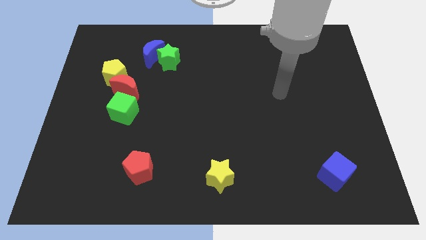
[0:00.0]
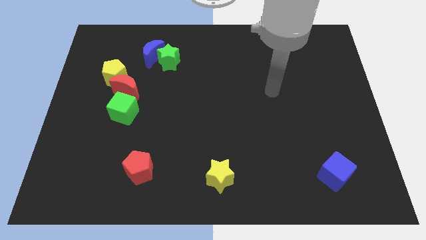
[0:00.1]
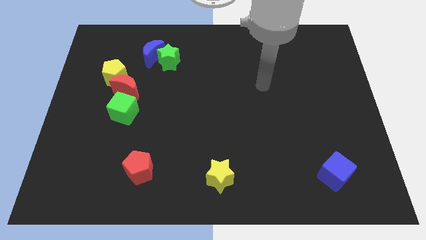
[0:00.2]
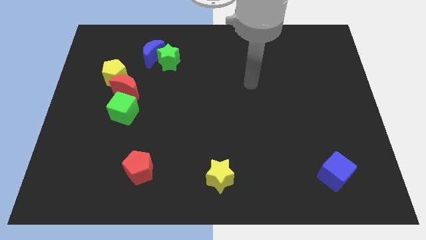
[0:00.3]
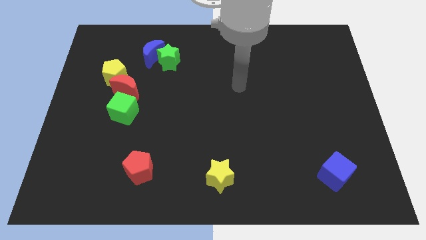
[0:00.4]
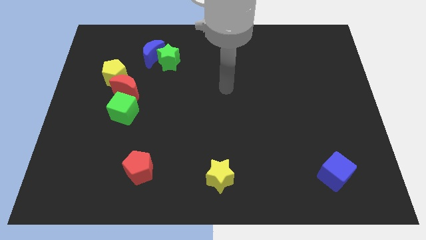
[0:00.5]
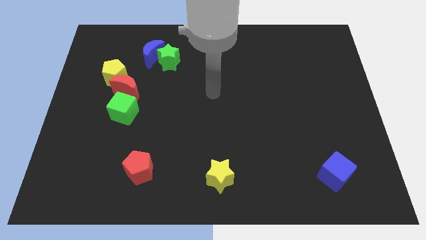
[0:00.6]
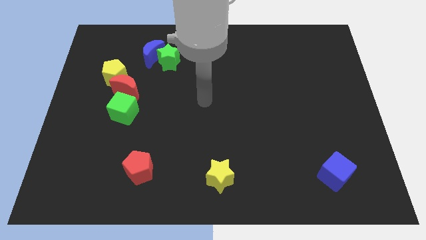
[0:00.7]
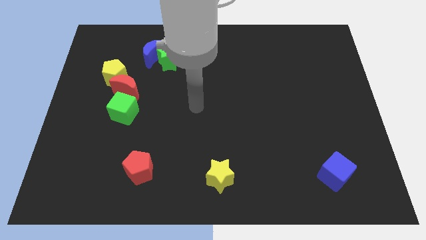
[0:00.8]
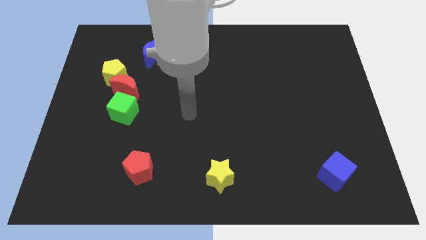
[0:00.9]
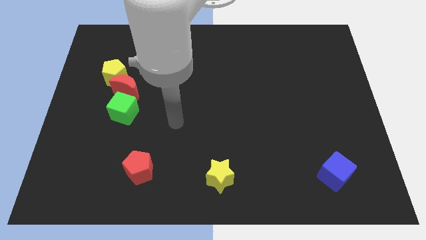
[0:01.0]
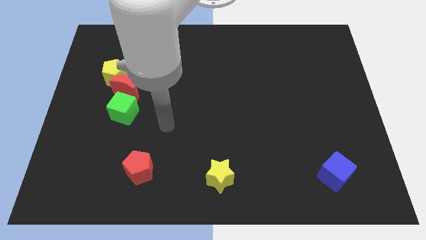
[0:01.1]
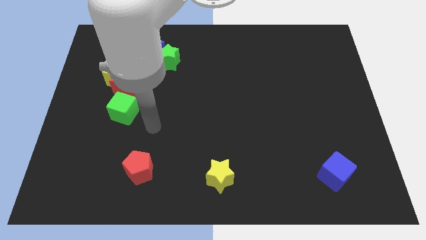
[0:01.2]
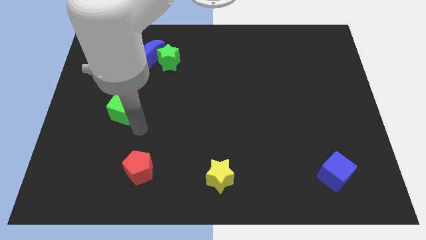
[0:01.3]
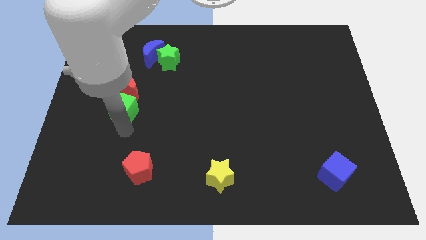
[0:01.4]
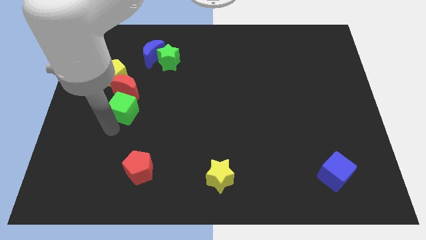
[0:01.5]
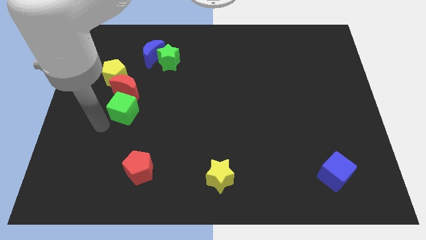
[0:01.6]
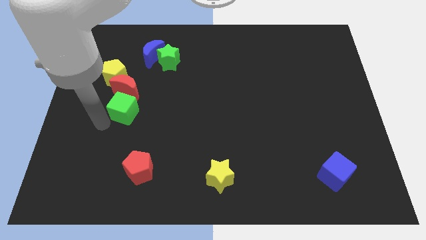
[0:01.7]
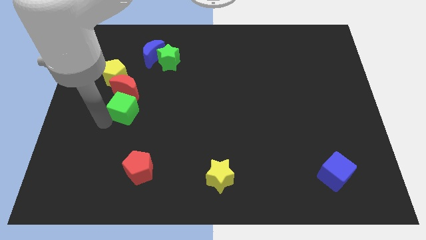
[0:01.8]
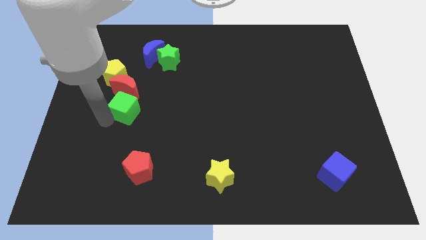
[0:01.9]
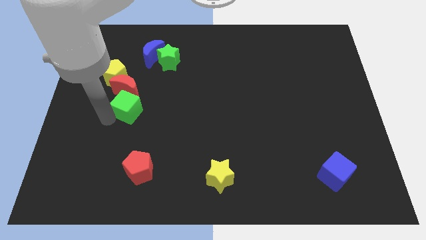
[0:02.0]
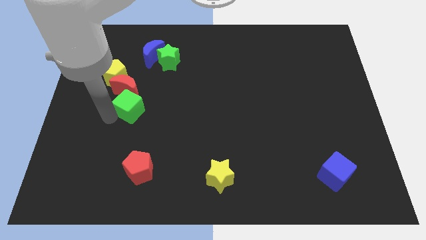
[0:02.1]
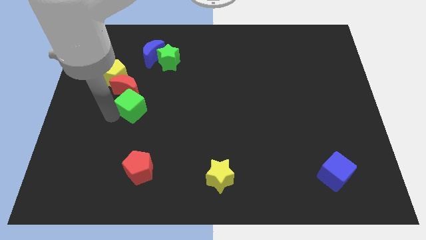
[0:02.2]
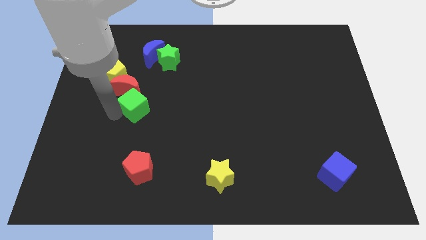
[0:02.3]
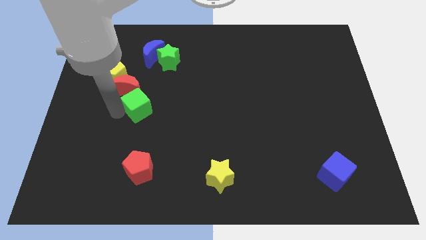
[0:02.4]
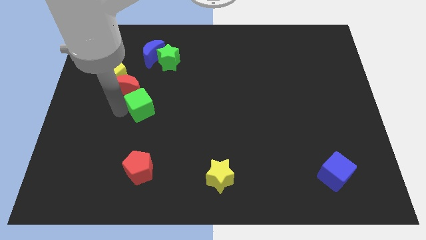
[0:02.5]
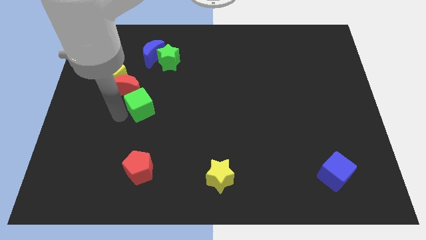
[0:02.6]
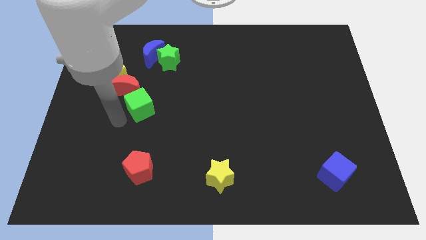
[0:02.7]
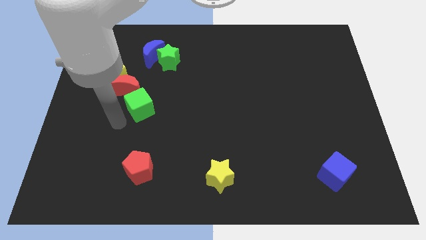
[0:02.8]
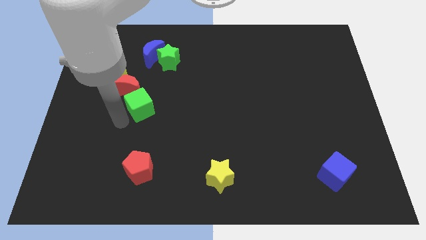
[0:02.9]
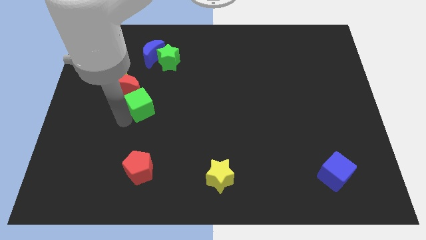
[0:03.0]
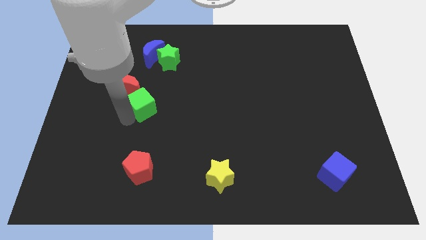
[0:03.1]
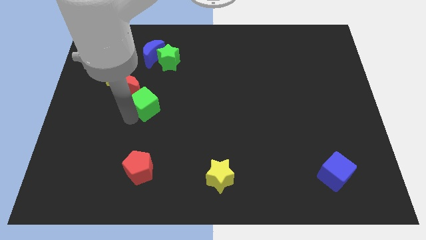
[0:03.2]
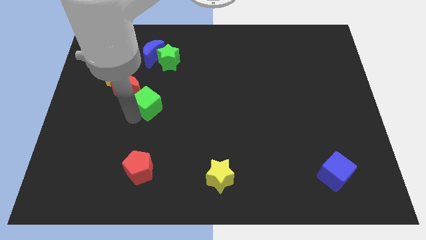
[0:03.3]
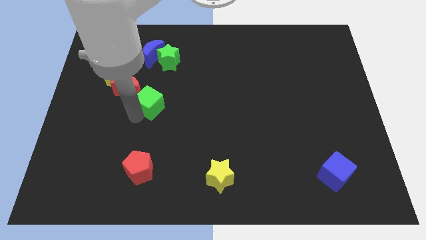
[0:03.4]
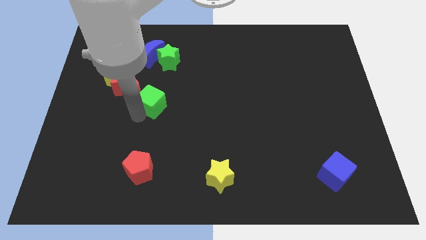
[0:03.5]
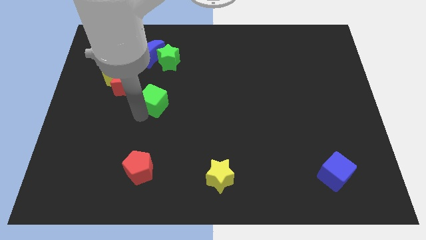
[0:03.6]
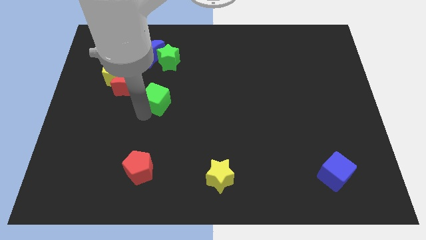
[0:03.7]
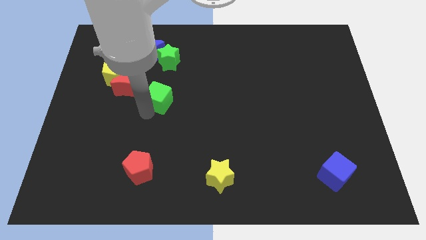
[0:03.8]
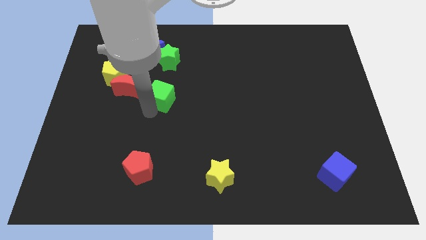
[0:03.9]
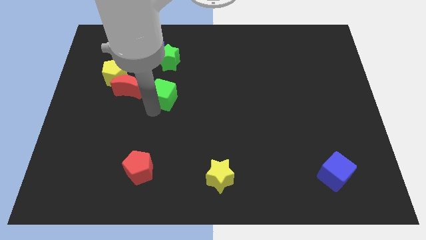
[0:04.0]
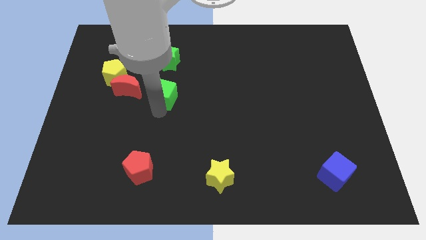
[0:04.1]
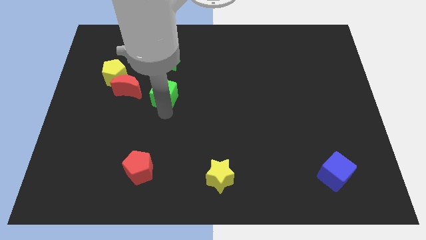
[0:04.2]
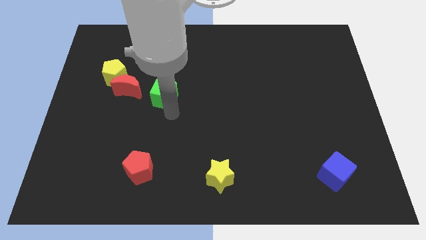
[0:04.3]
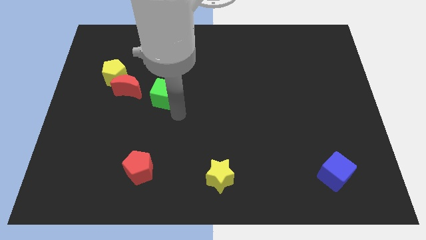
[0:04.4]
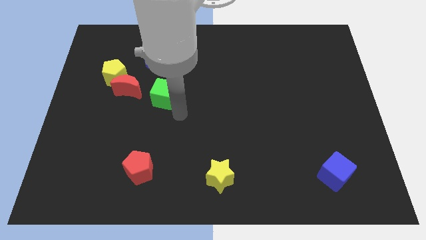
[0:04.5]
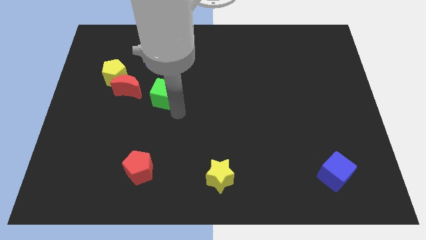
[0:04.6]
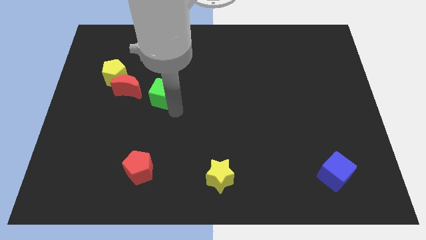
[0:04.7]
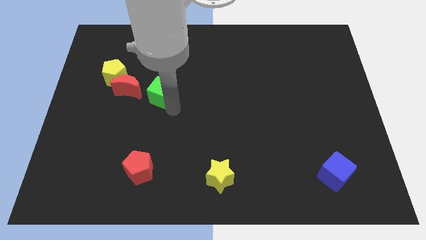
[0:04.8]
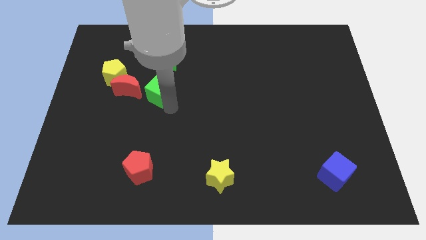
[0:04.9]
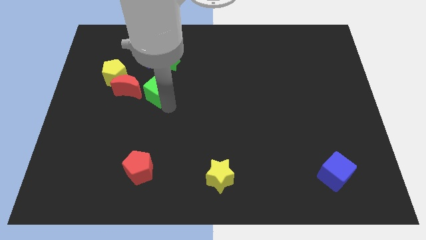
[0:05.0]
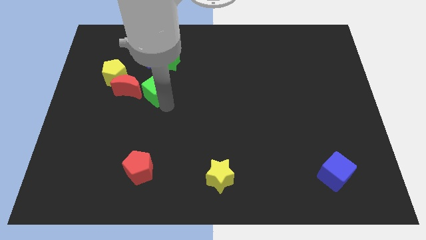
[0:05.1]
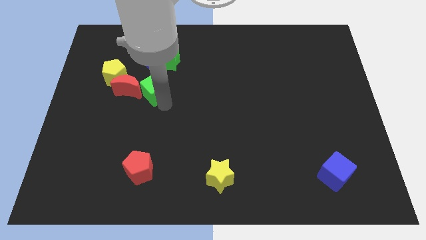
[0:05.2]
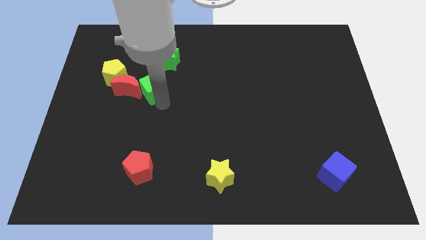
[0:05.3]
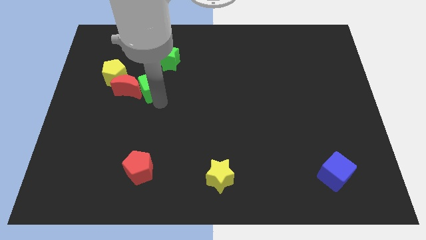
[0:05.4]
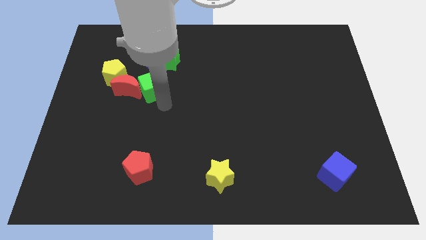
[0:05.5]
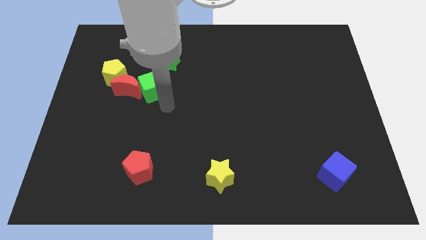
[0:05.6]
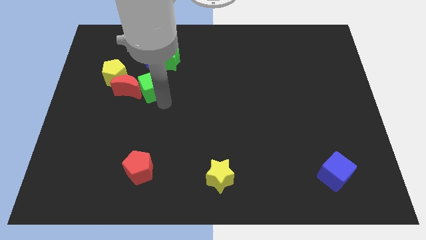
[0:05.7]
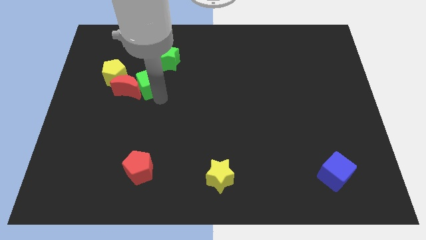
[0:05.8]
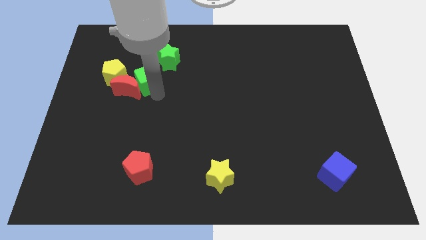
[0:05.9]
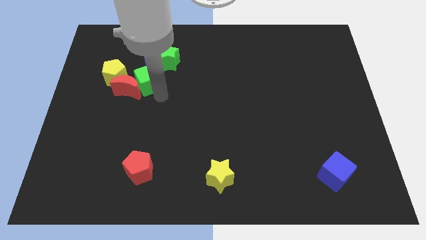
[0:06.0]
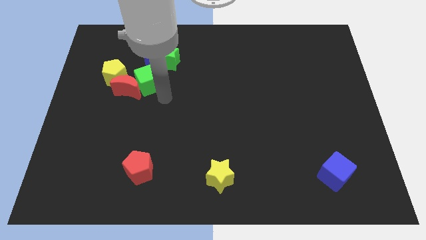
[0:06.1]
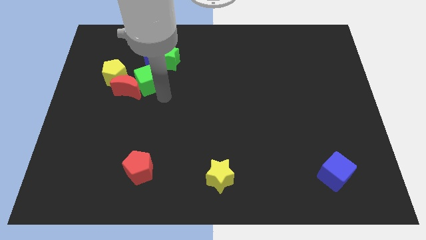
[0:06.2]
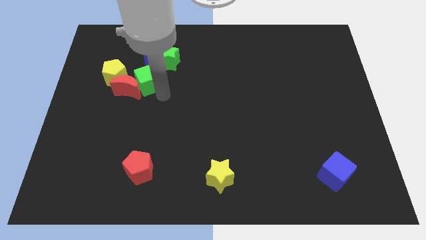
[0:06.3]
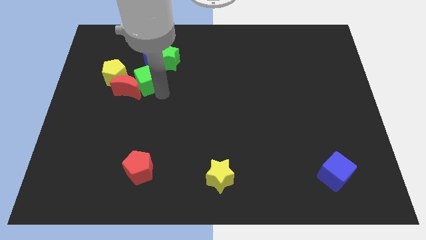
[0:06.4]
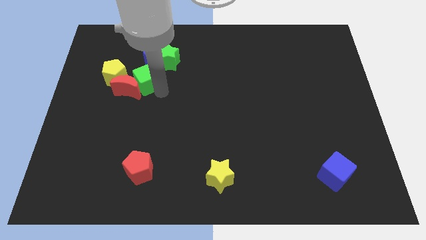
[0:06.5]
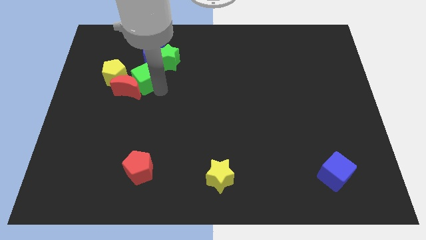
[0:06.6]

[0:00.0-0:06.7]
put the green cube to the top side of the red moon

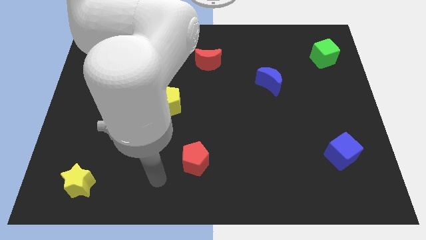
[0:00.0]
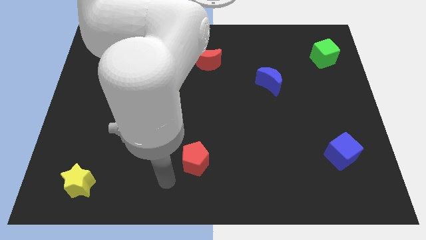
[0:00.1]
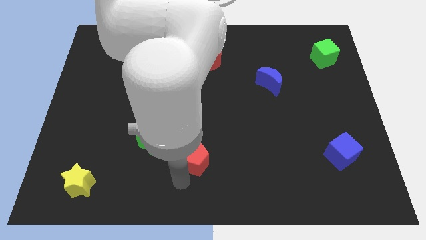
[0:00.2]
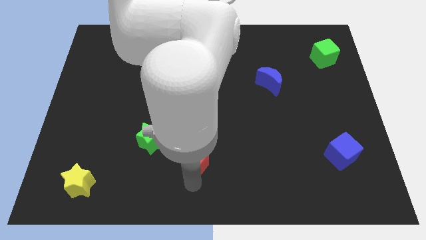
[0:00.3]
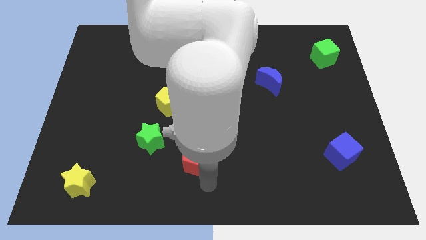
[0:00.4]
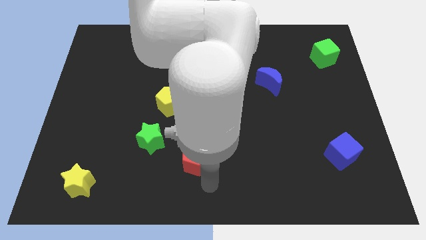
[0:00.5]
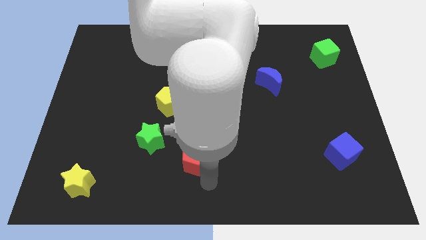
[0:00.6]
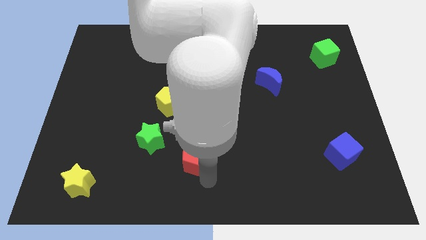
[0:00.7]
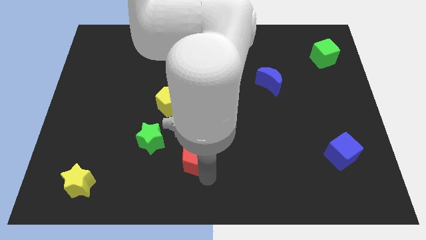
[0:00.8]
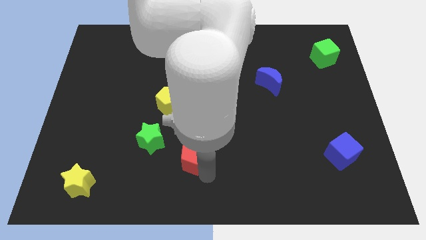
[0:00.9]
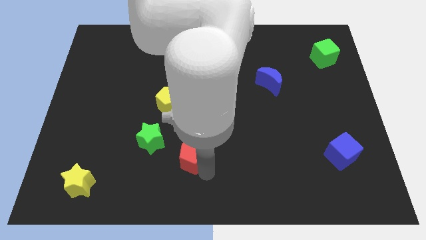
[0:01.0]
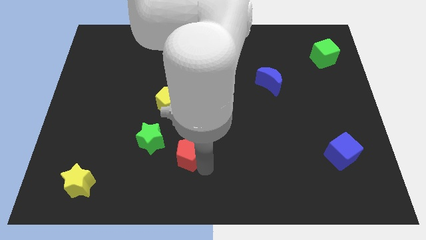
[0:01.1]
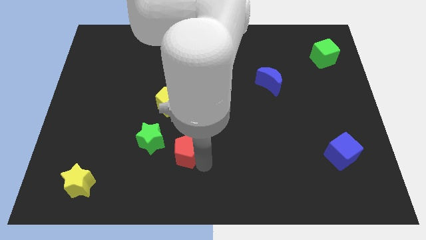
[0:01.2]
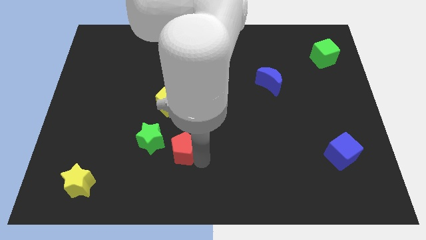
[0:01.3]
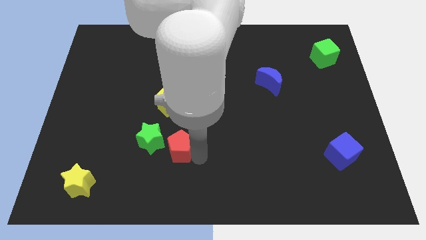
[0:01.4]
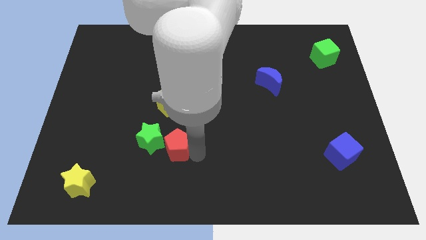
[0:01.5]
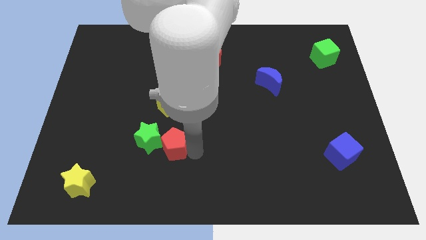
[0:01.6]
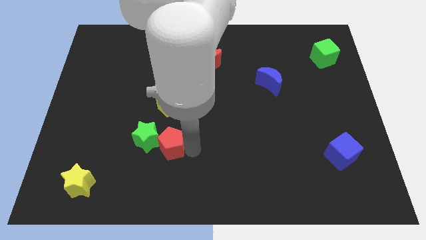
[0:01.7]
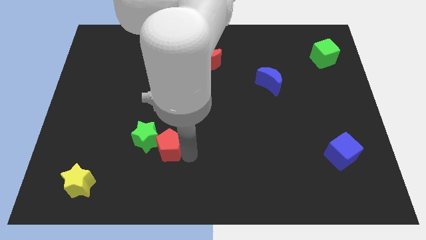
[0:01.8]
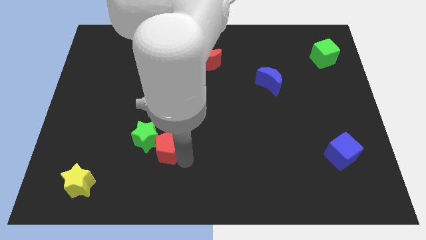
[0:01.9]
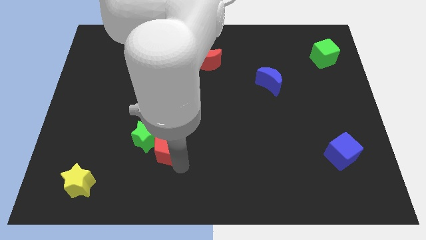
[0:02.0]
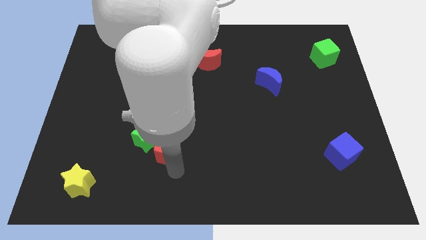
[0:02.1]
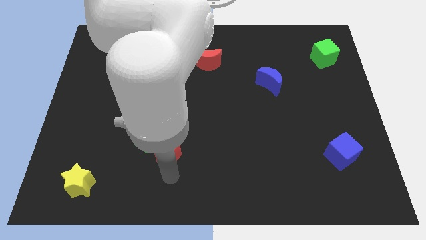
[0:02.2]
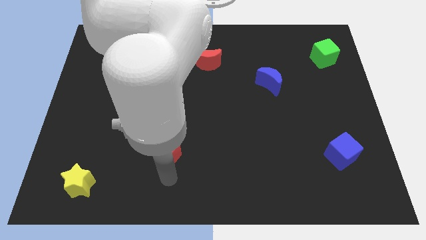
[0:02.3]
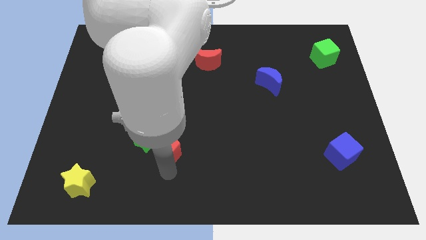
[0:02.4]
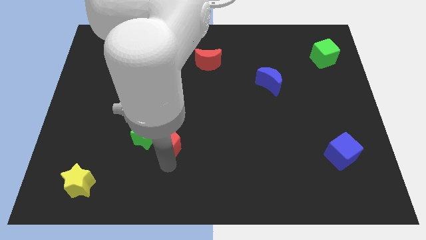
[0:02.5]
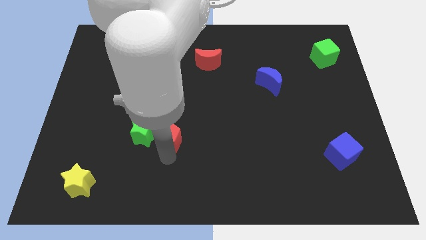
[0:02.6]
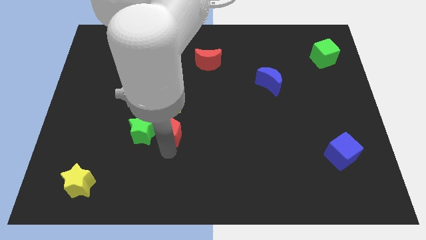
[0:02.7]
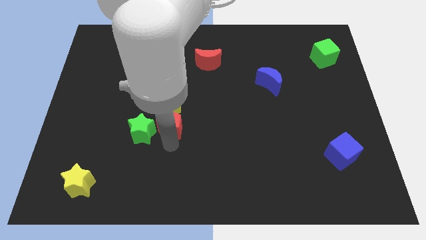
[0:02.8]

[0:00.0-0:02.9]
slide the red pentagon diagonally down and to the left of the yellow pentagon
